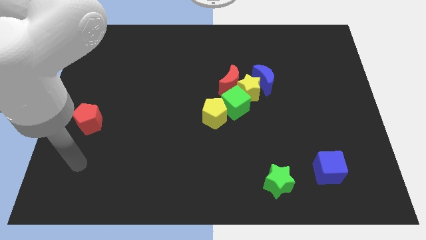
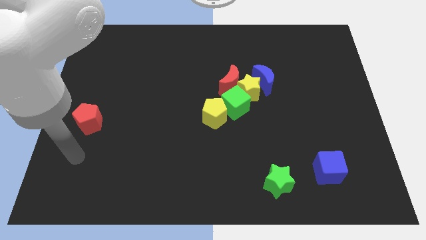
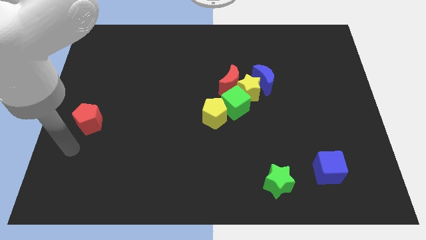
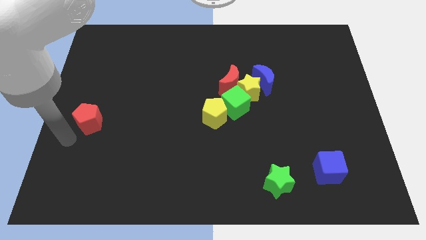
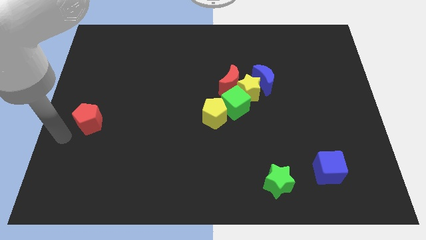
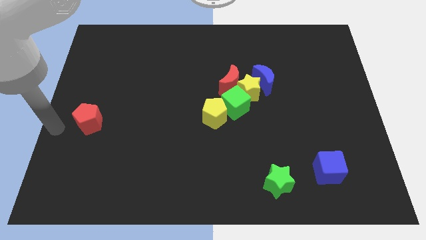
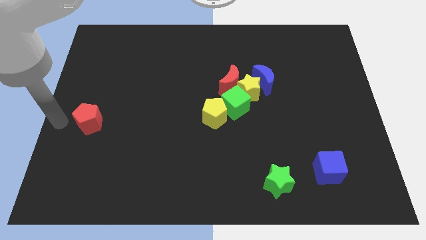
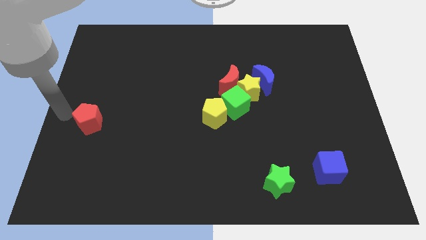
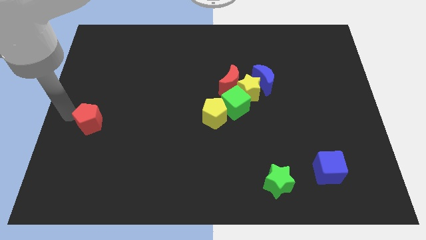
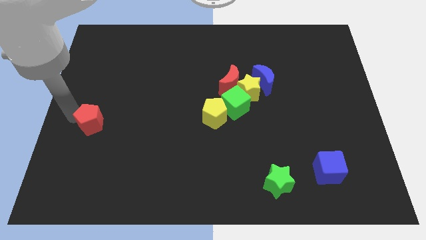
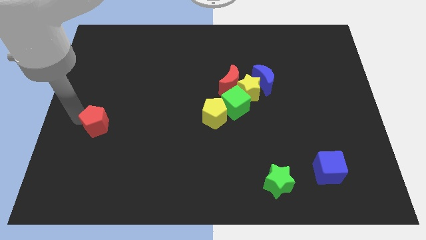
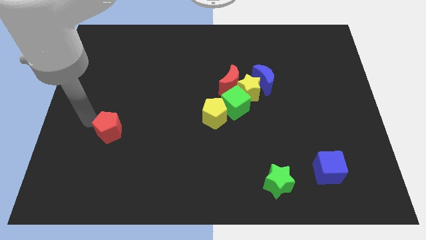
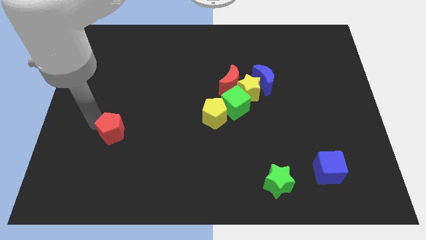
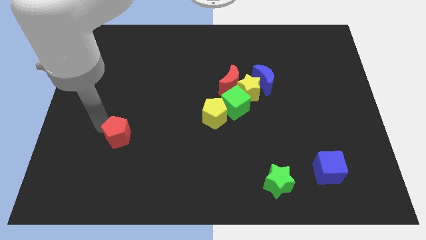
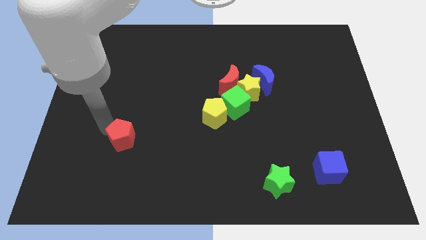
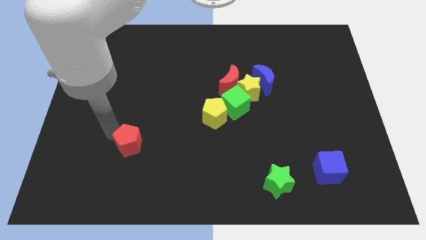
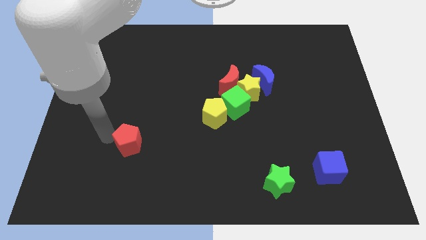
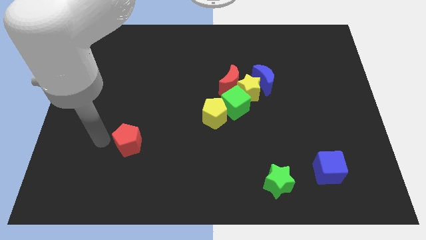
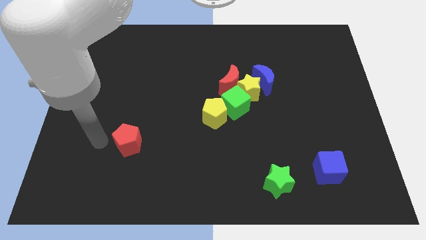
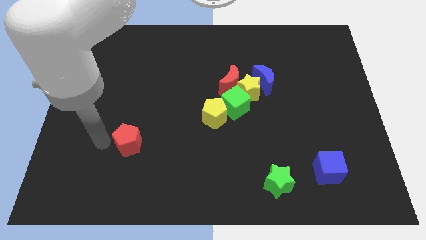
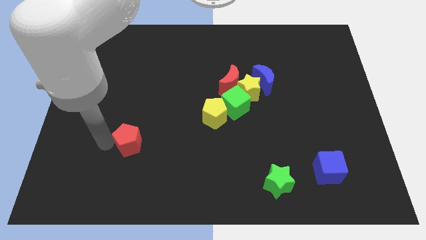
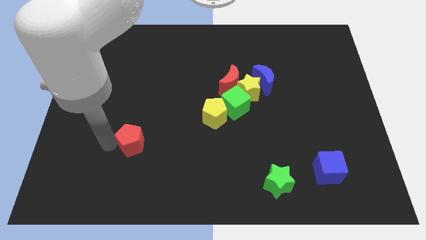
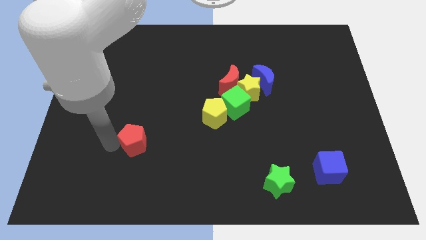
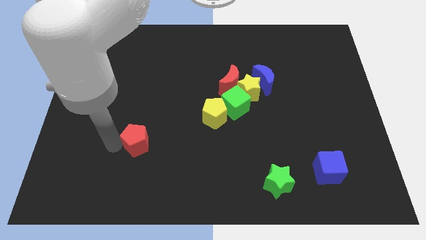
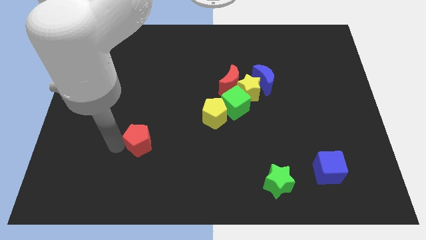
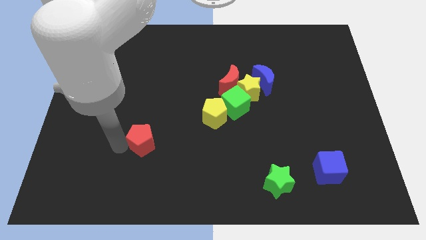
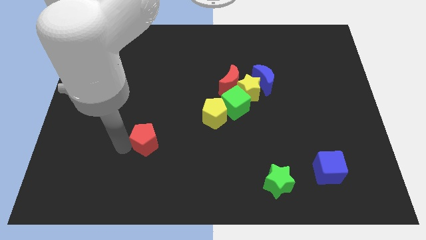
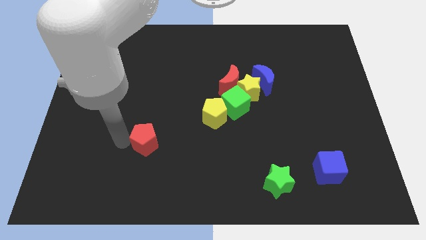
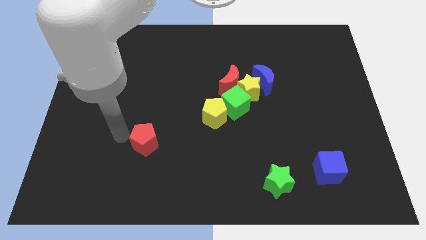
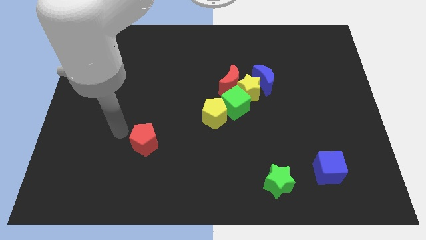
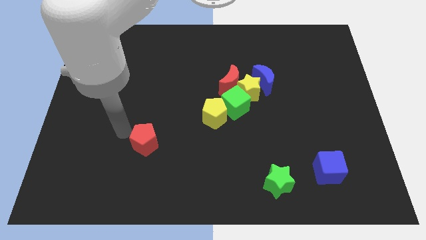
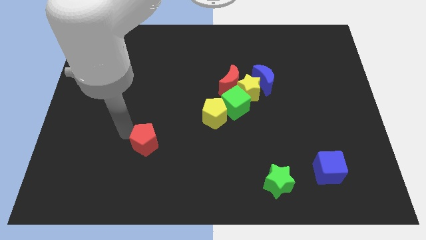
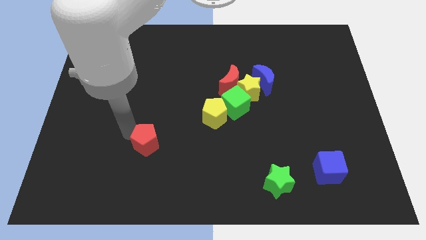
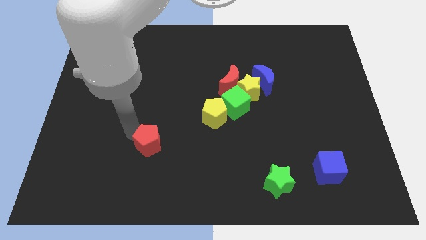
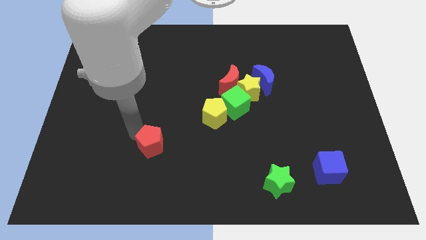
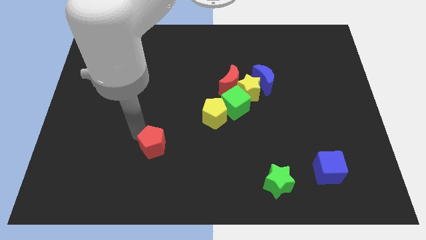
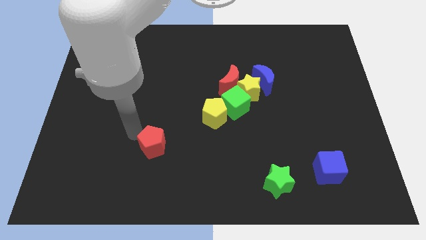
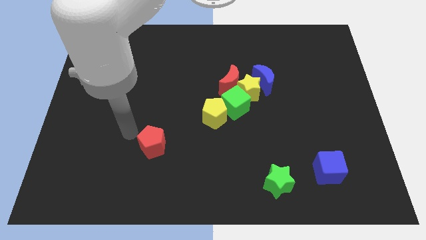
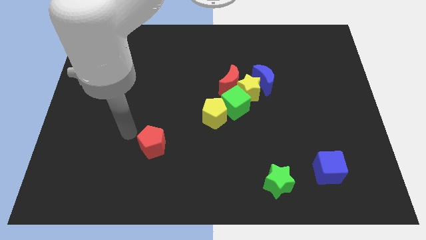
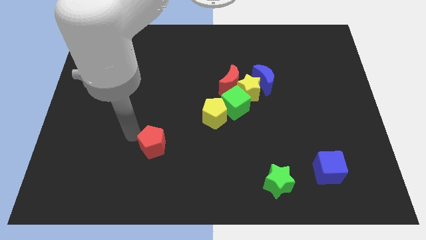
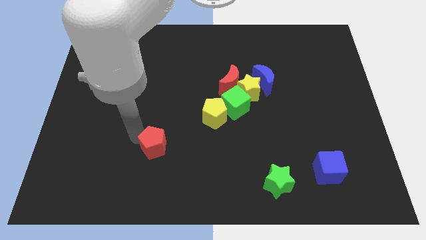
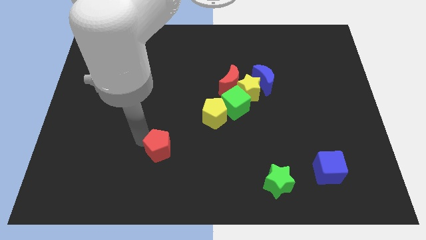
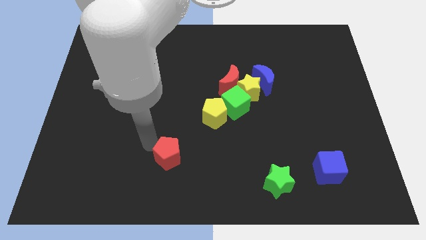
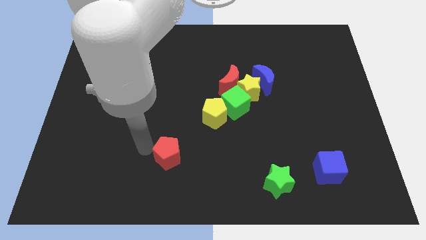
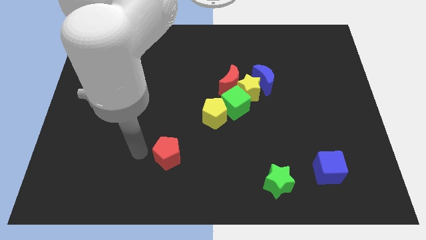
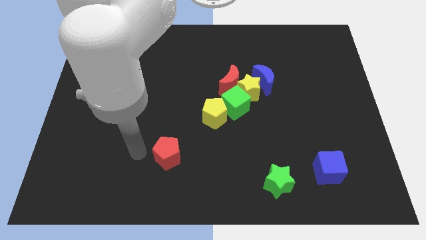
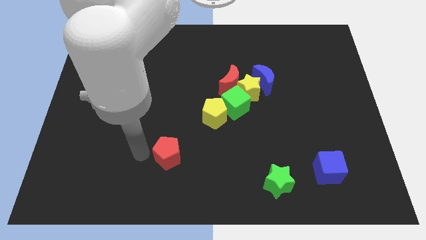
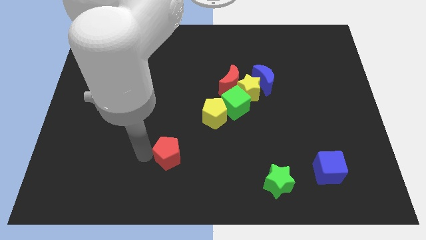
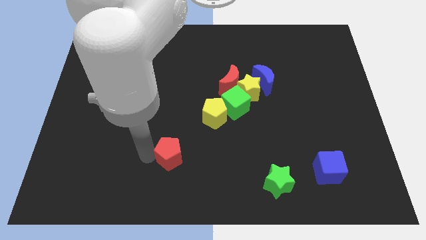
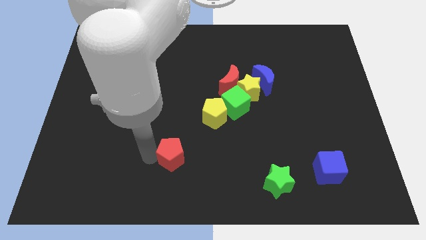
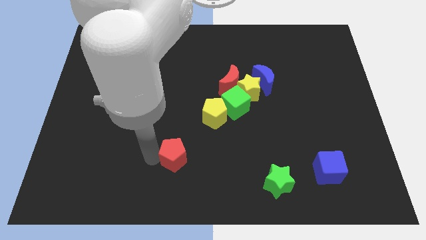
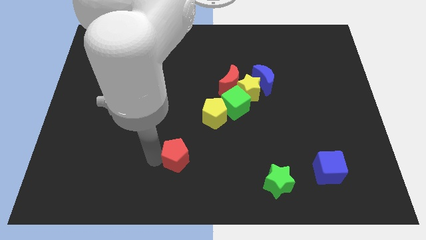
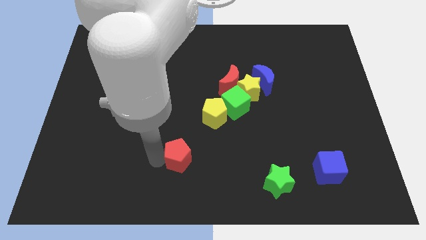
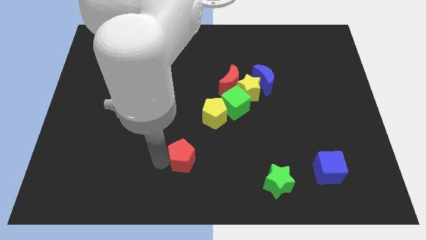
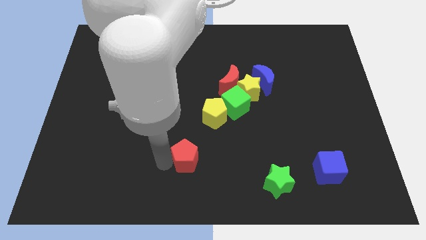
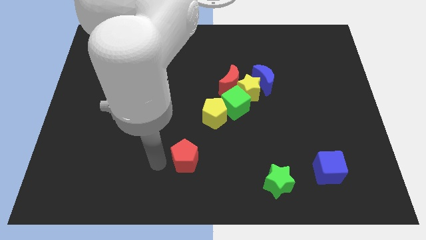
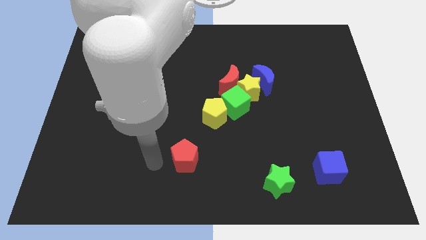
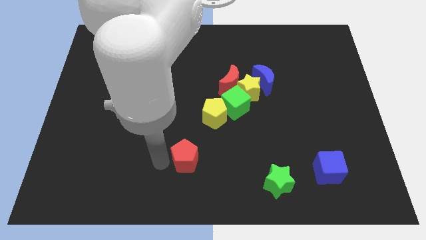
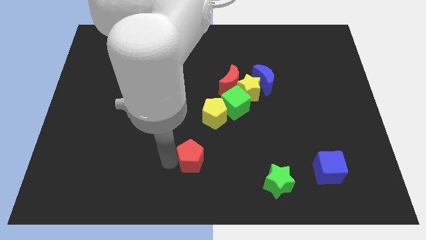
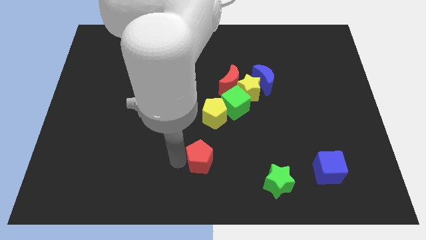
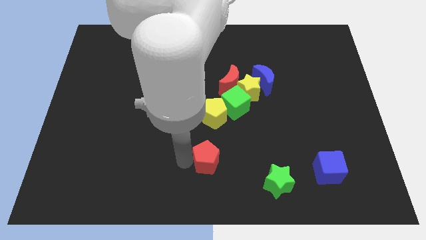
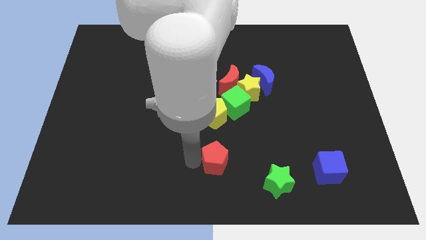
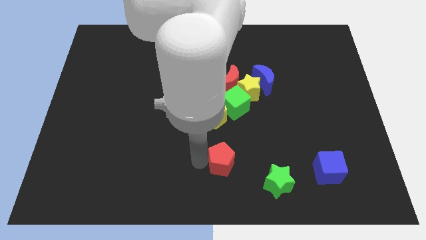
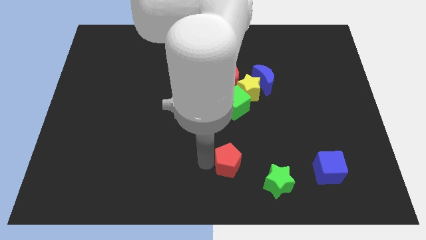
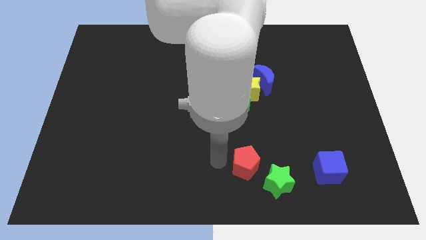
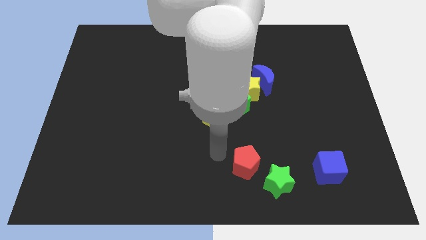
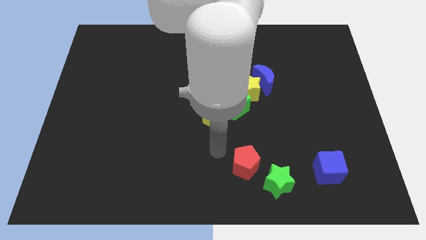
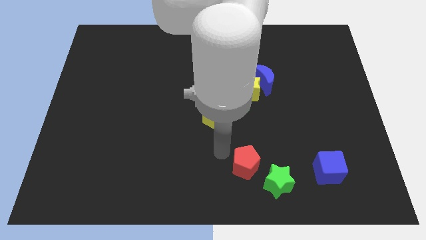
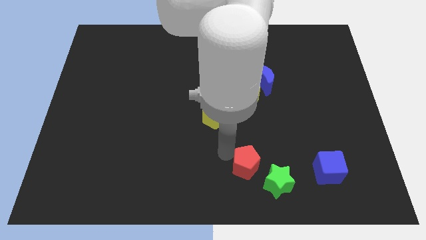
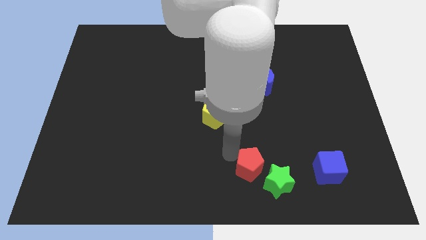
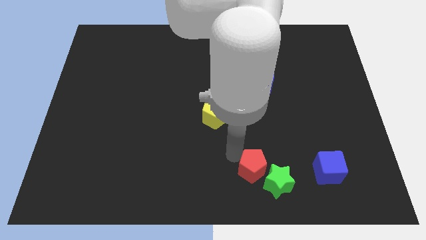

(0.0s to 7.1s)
move the red pentagon next to the green star

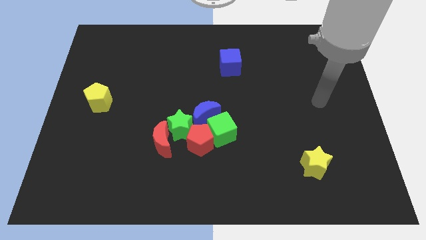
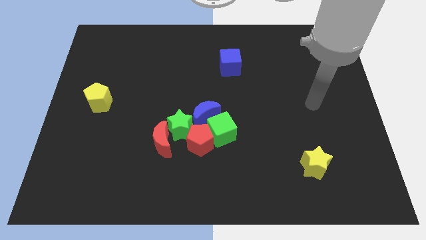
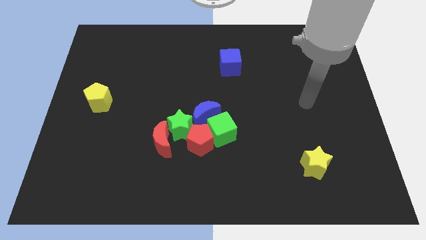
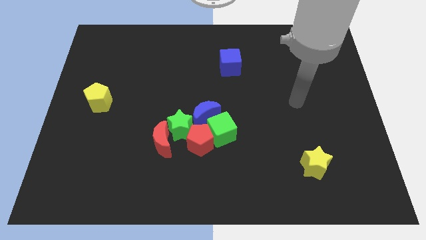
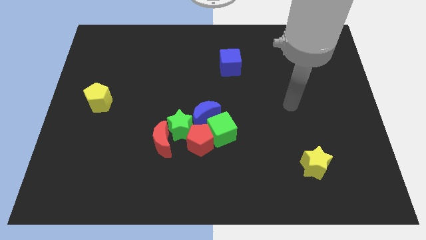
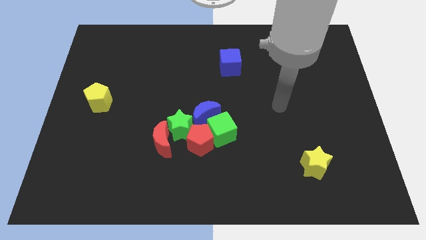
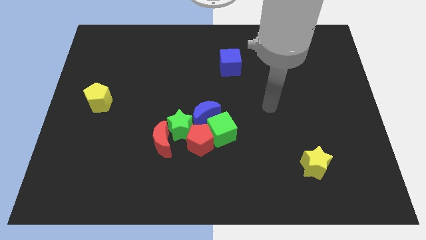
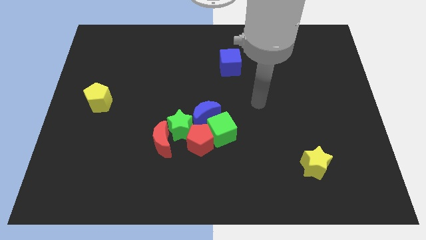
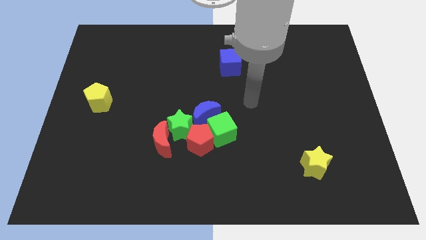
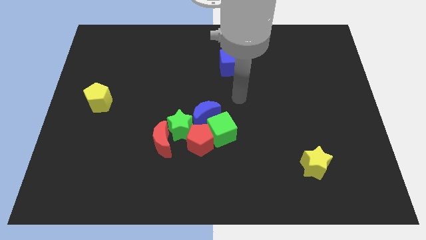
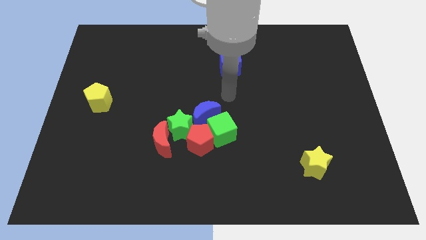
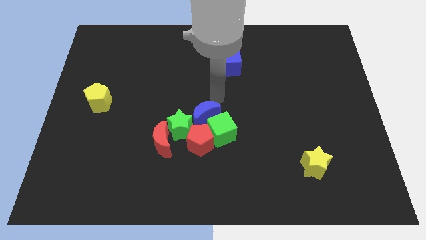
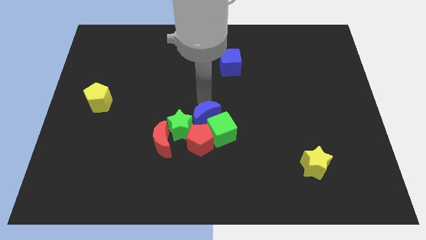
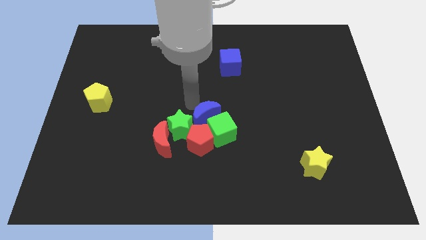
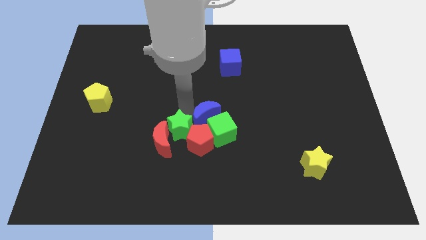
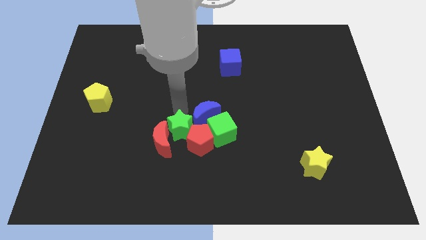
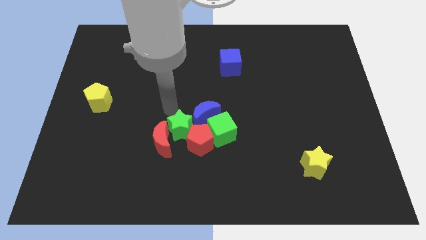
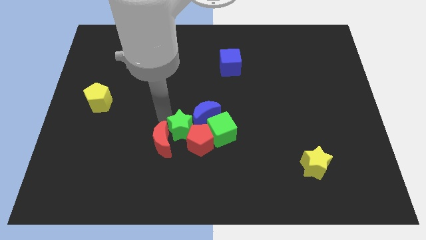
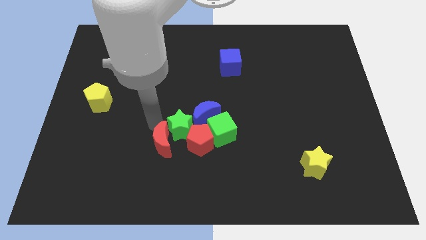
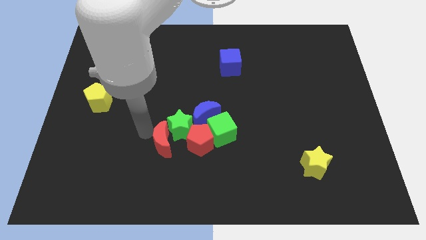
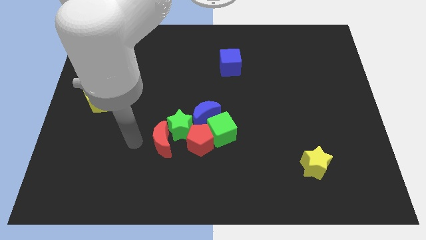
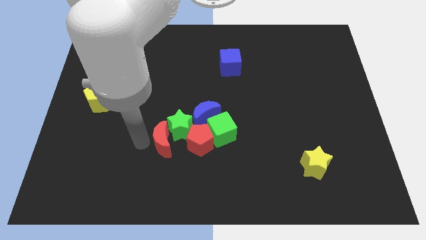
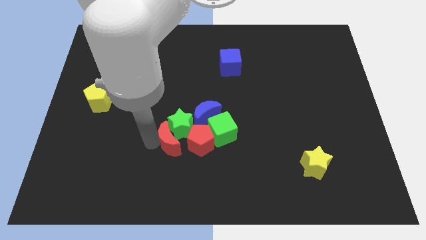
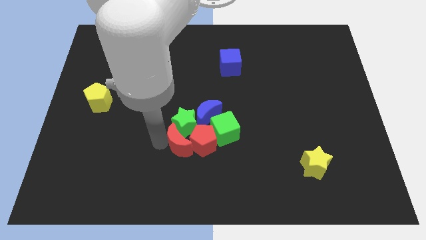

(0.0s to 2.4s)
slide the red moon next to the red pentagon
